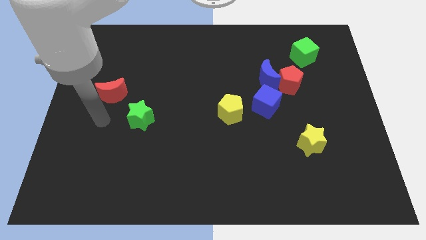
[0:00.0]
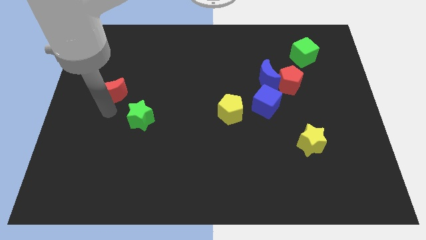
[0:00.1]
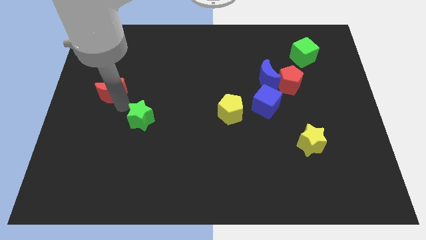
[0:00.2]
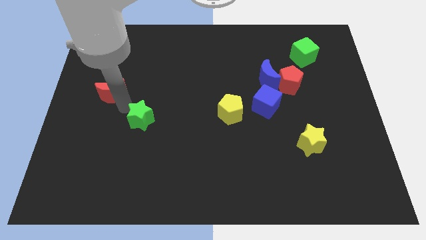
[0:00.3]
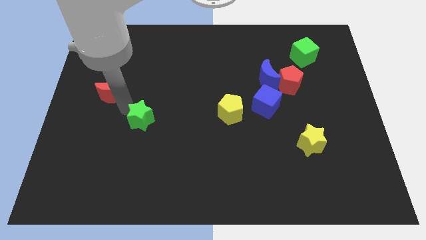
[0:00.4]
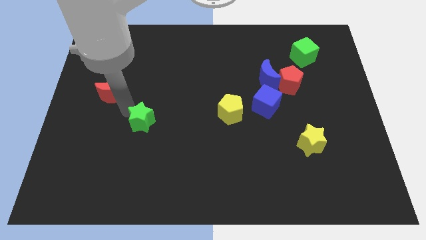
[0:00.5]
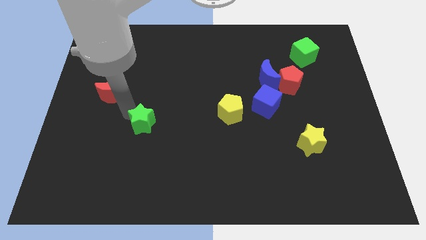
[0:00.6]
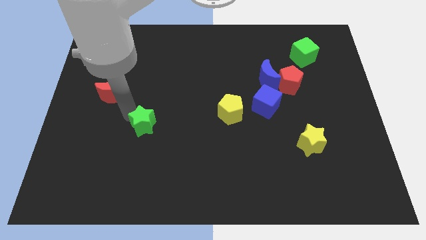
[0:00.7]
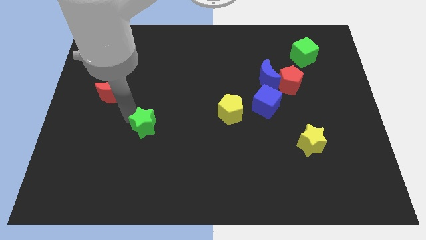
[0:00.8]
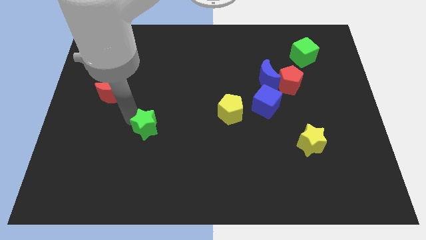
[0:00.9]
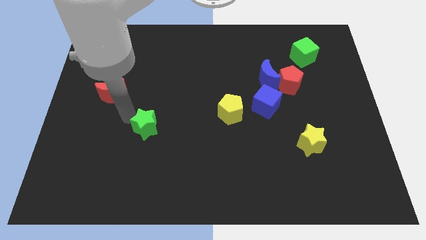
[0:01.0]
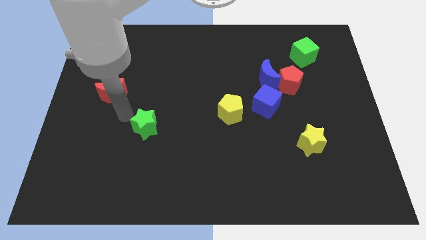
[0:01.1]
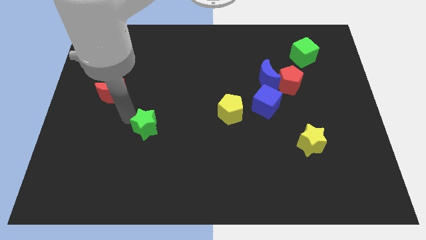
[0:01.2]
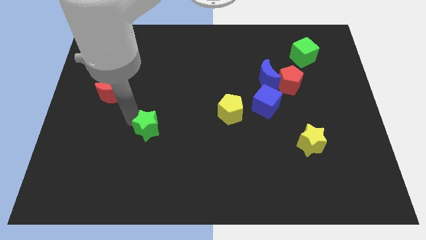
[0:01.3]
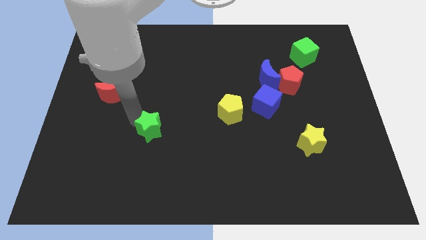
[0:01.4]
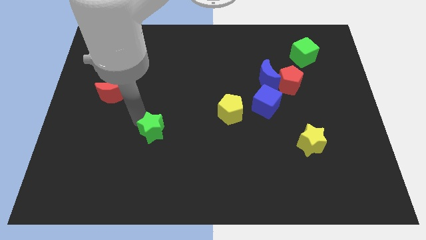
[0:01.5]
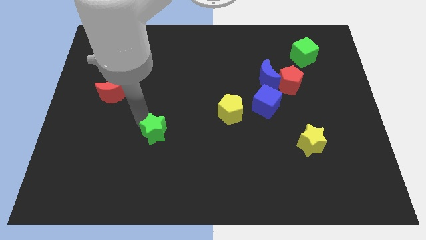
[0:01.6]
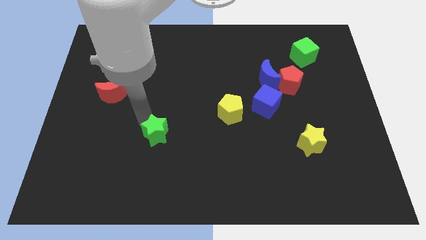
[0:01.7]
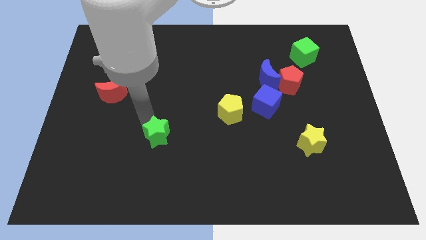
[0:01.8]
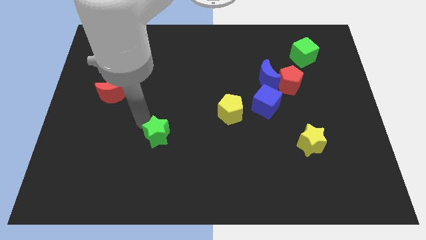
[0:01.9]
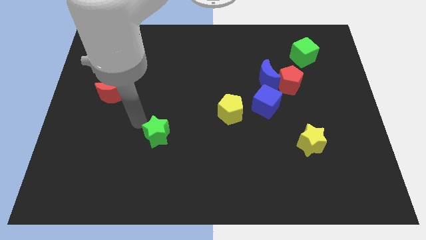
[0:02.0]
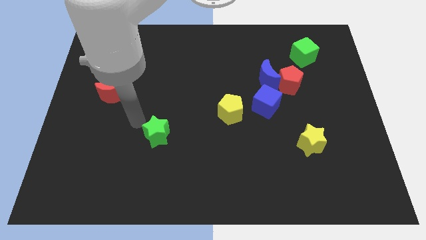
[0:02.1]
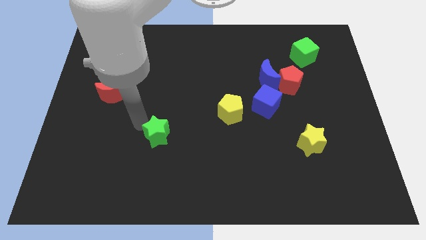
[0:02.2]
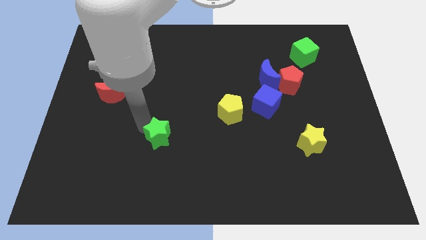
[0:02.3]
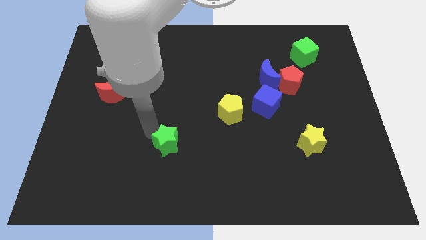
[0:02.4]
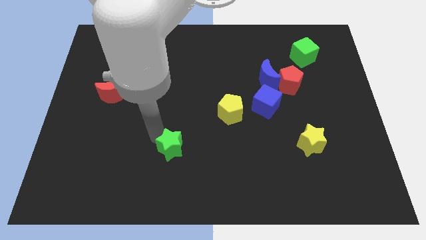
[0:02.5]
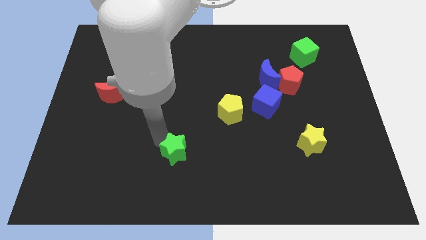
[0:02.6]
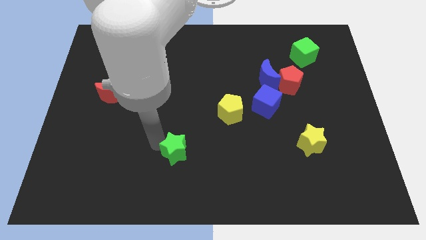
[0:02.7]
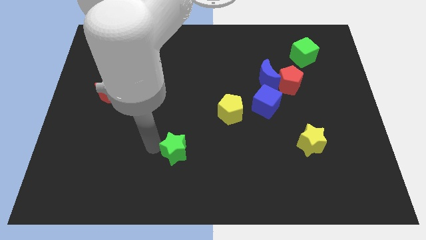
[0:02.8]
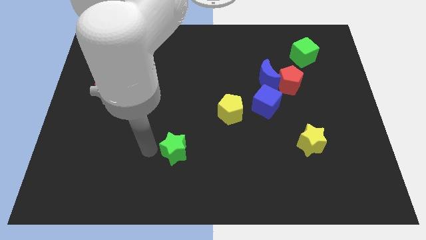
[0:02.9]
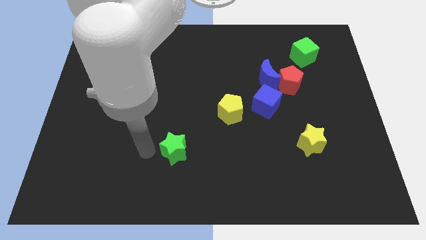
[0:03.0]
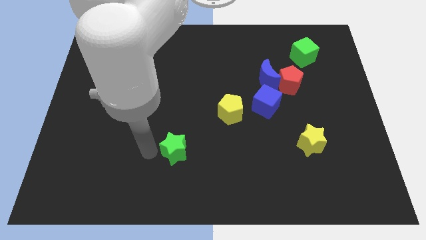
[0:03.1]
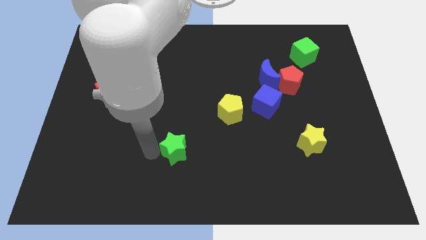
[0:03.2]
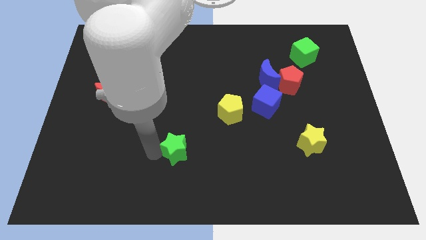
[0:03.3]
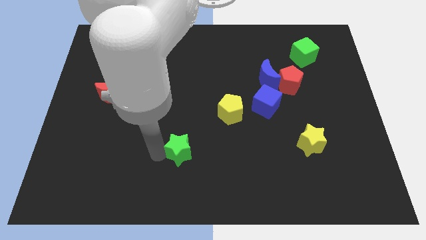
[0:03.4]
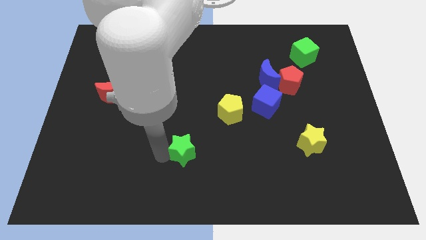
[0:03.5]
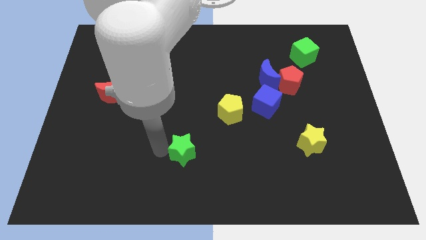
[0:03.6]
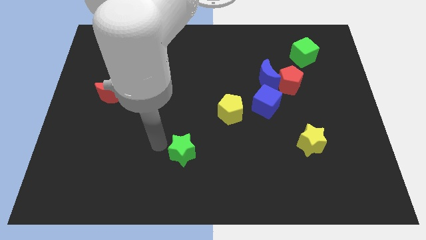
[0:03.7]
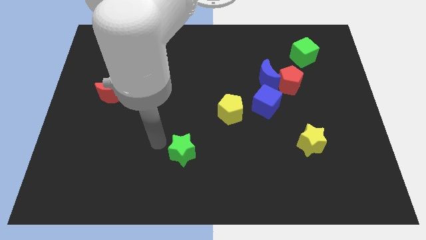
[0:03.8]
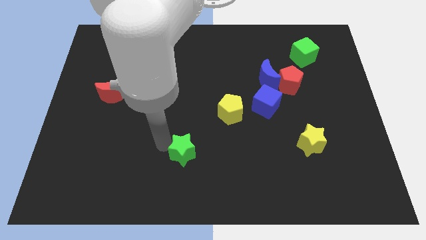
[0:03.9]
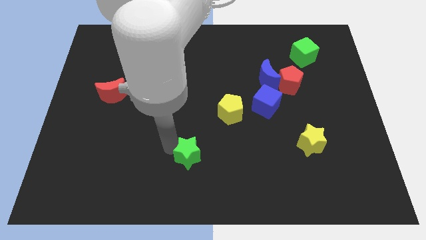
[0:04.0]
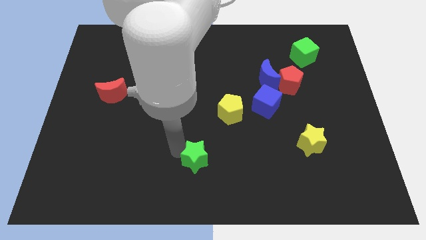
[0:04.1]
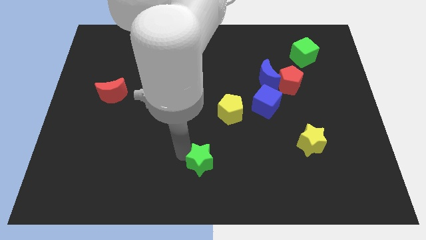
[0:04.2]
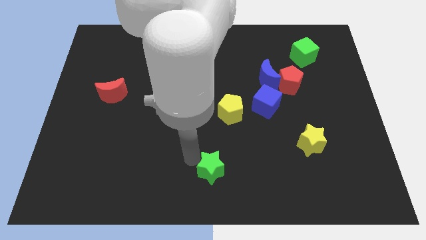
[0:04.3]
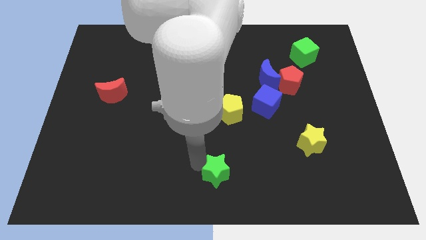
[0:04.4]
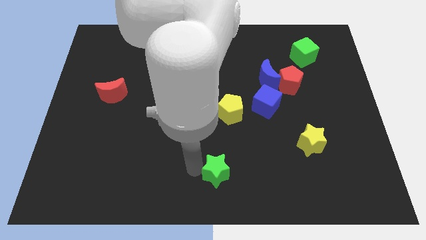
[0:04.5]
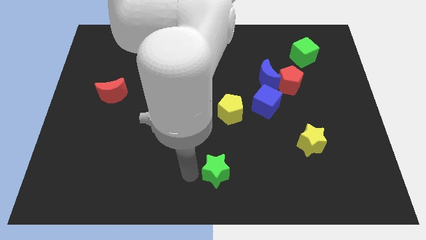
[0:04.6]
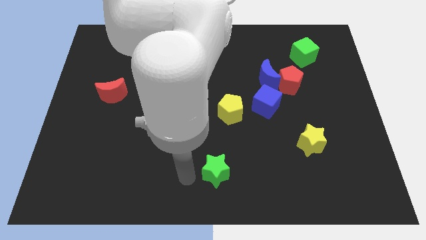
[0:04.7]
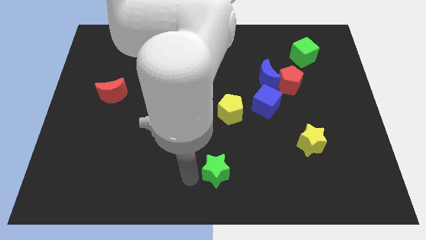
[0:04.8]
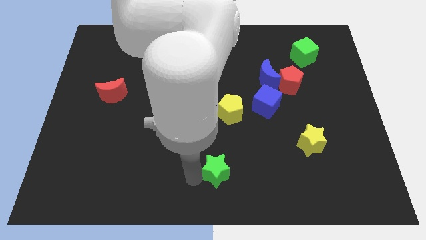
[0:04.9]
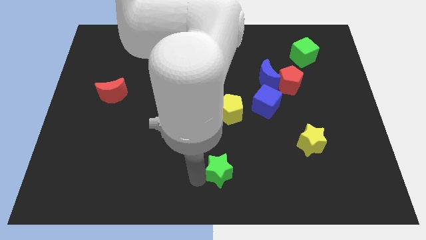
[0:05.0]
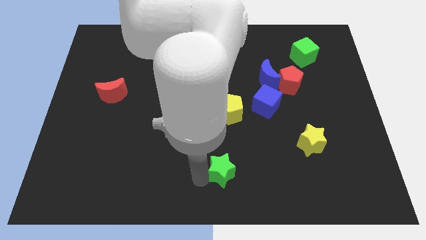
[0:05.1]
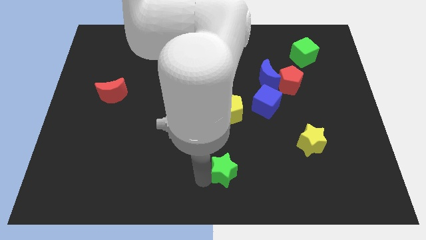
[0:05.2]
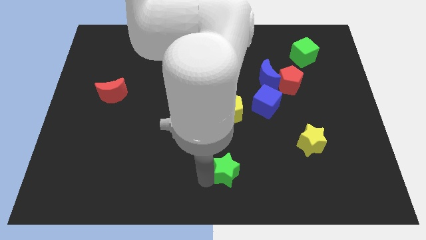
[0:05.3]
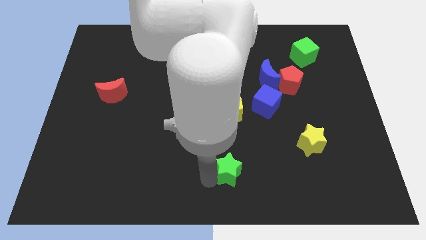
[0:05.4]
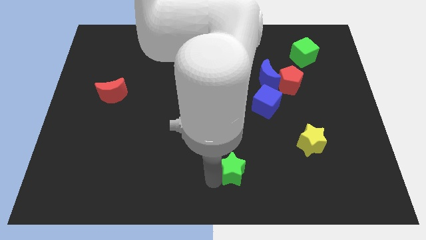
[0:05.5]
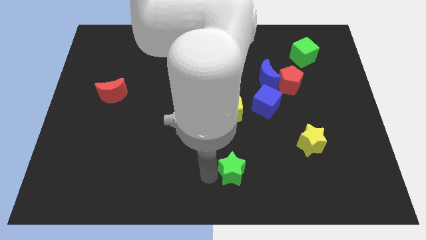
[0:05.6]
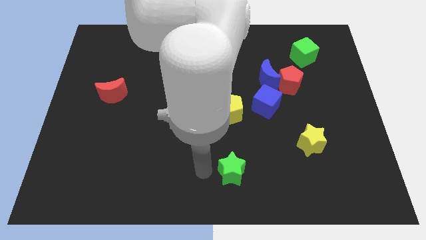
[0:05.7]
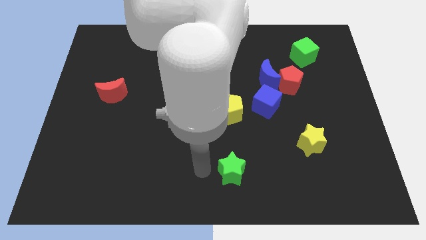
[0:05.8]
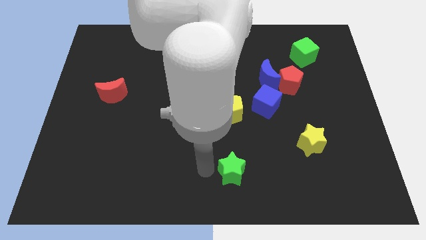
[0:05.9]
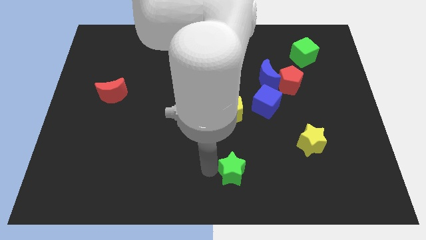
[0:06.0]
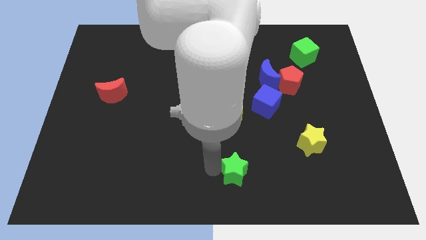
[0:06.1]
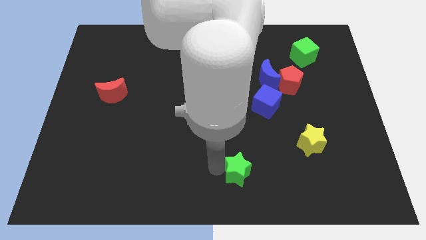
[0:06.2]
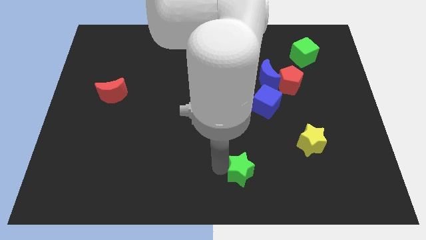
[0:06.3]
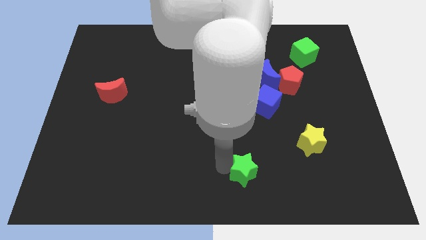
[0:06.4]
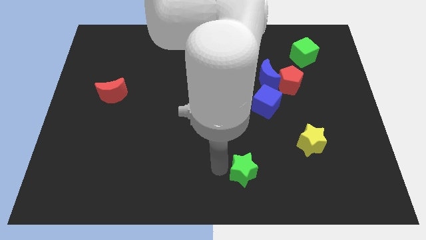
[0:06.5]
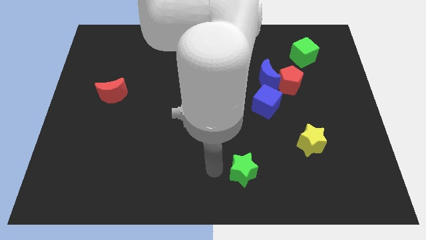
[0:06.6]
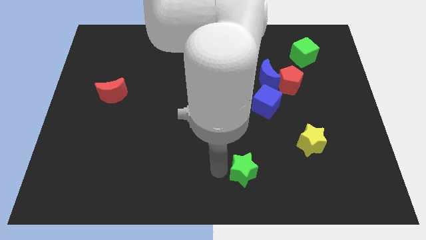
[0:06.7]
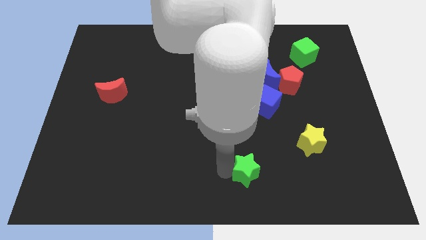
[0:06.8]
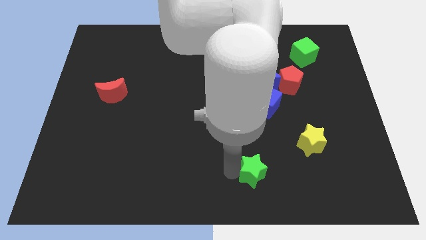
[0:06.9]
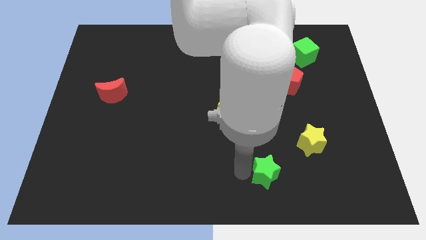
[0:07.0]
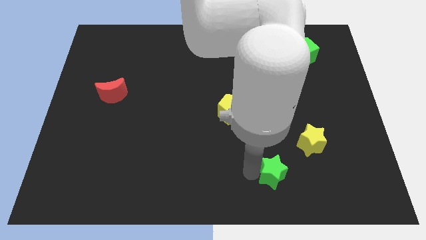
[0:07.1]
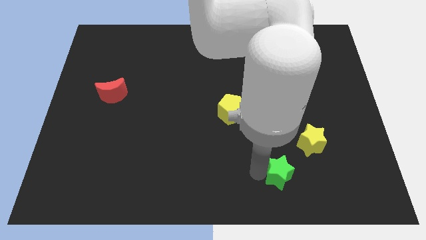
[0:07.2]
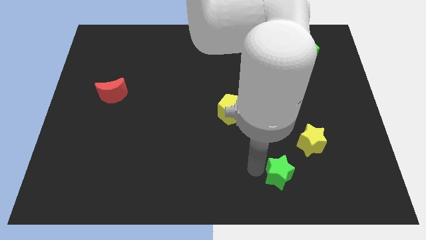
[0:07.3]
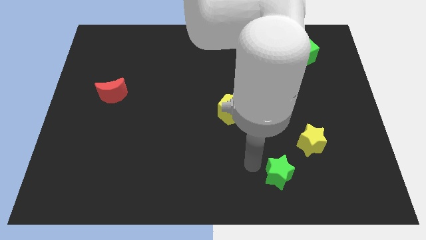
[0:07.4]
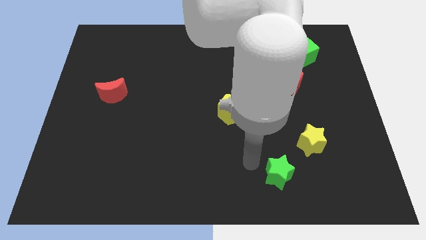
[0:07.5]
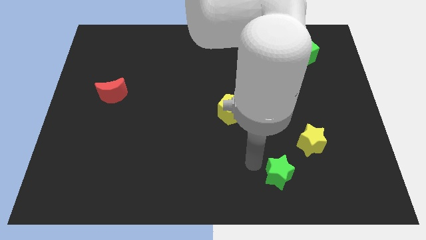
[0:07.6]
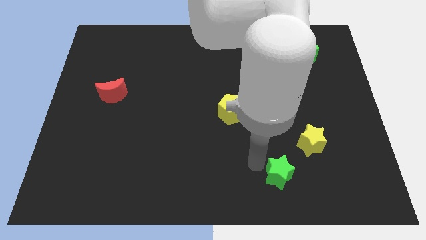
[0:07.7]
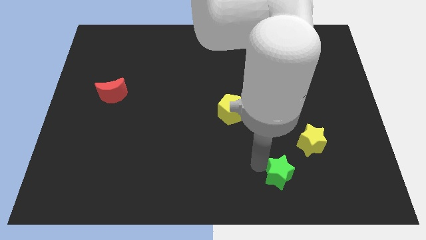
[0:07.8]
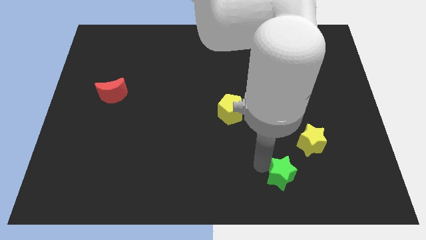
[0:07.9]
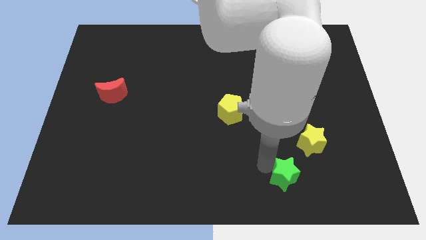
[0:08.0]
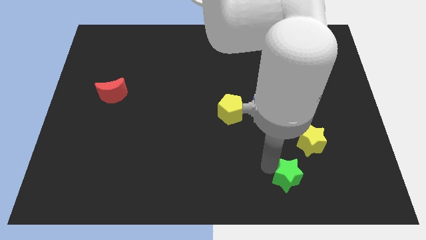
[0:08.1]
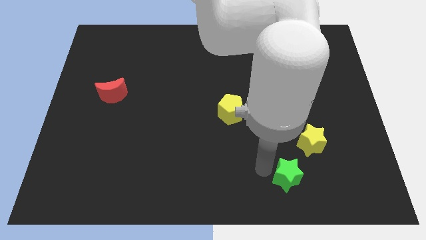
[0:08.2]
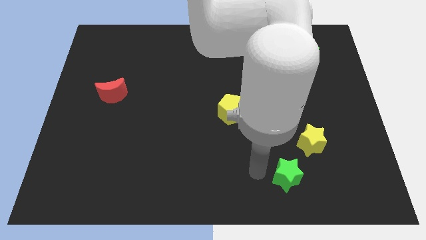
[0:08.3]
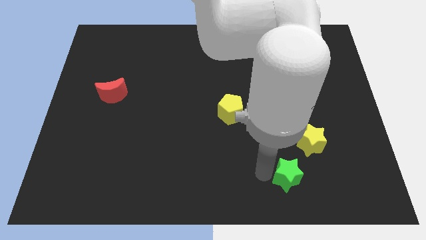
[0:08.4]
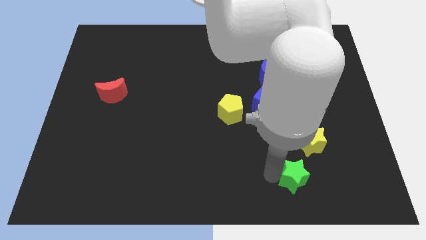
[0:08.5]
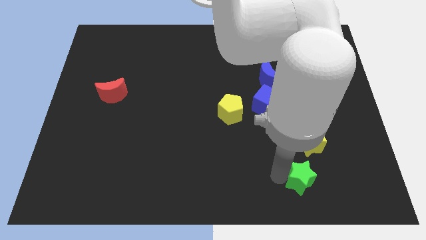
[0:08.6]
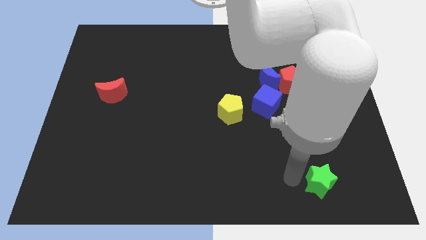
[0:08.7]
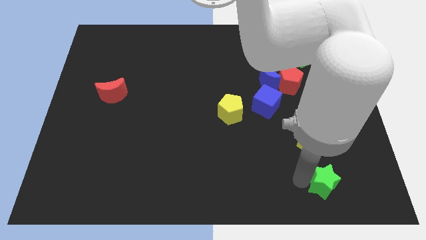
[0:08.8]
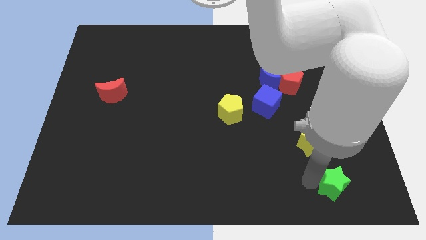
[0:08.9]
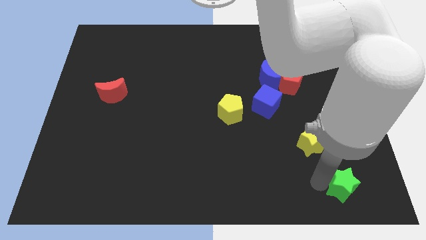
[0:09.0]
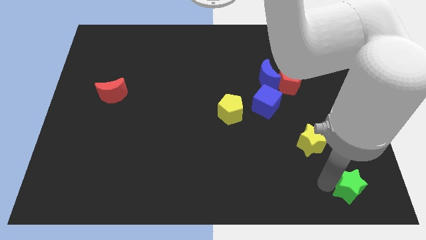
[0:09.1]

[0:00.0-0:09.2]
move the green star to the bottom right
